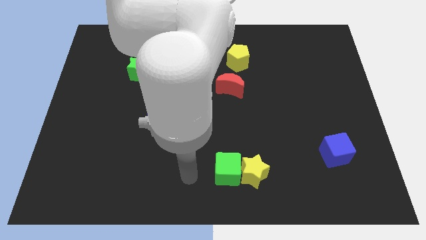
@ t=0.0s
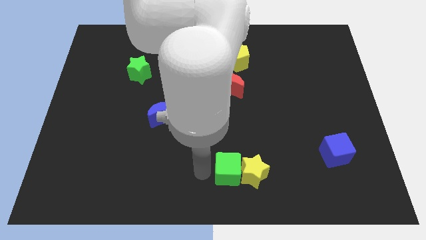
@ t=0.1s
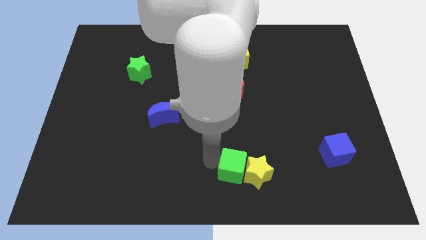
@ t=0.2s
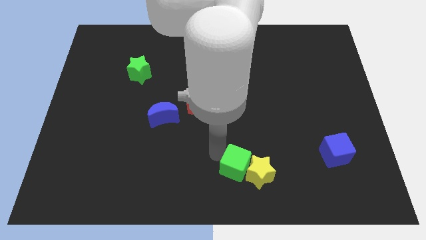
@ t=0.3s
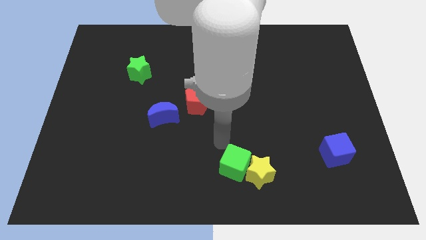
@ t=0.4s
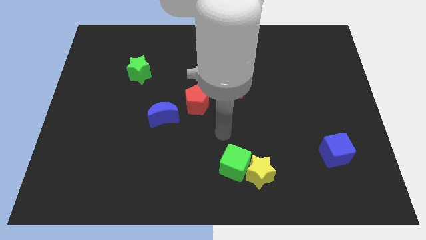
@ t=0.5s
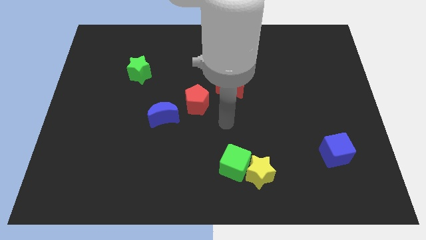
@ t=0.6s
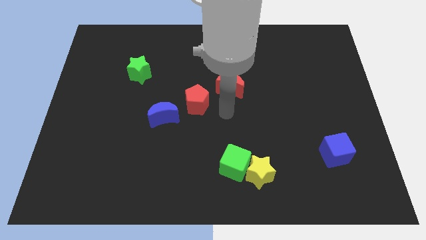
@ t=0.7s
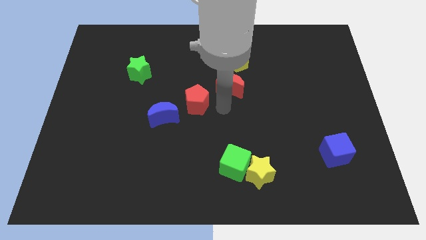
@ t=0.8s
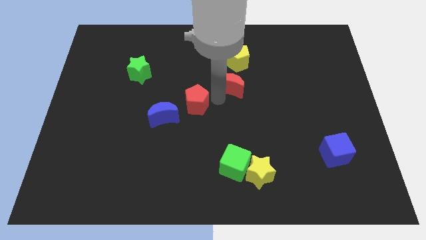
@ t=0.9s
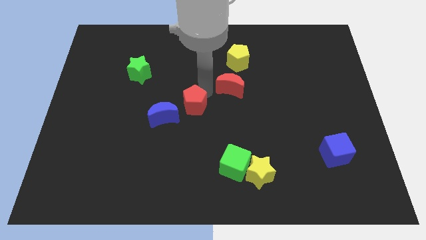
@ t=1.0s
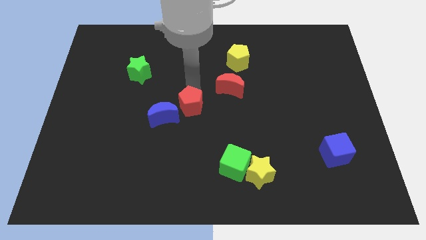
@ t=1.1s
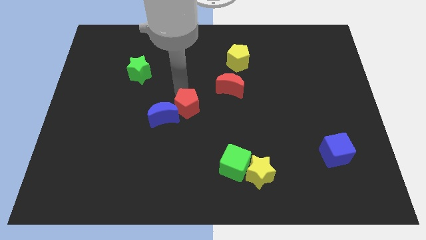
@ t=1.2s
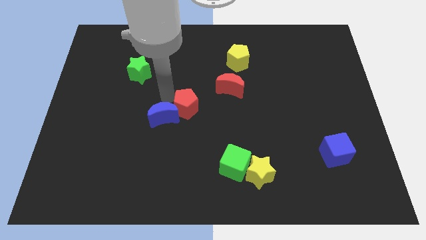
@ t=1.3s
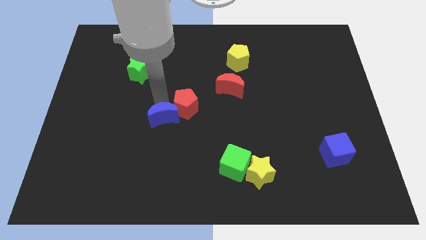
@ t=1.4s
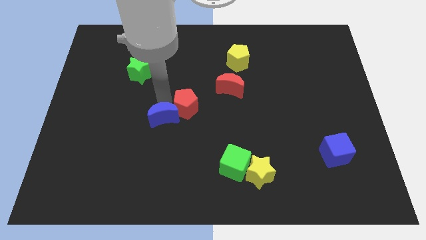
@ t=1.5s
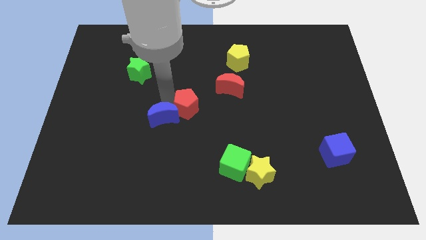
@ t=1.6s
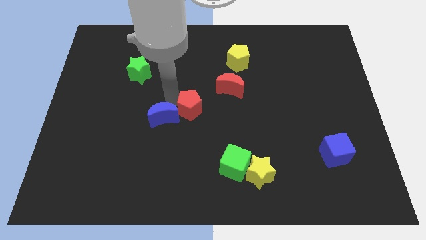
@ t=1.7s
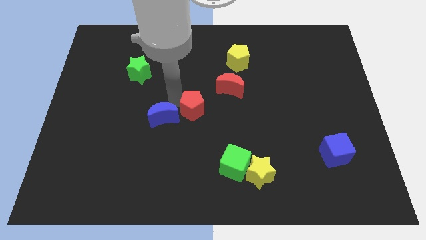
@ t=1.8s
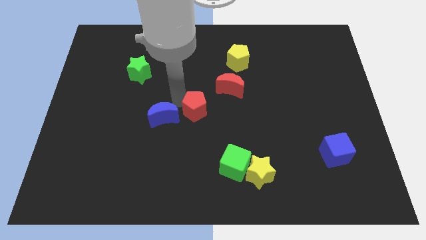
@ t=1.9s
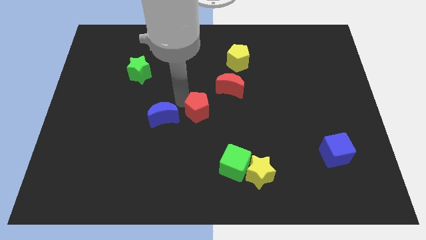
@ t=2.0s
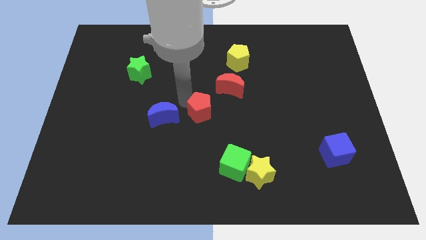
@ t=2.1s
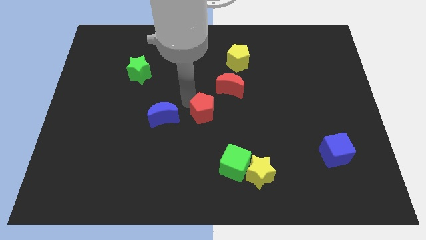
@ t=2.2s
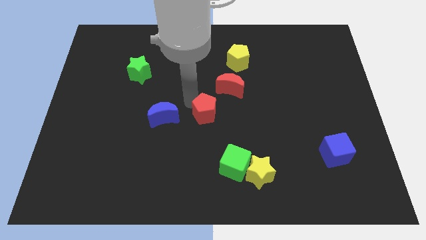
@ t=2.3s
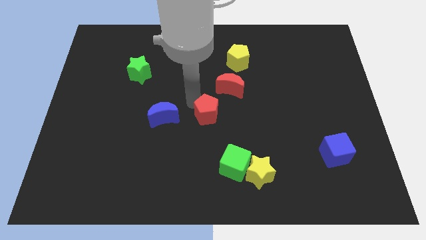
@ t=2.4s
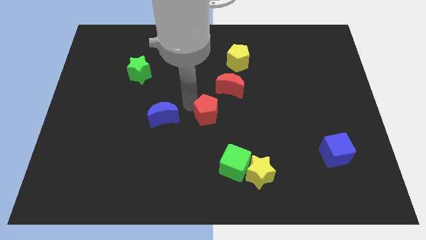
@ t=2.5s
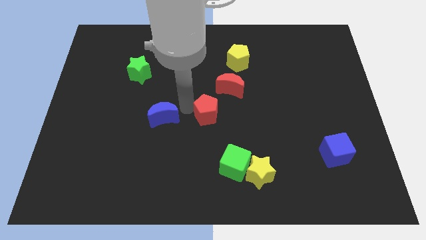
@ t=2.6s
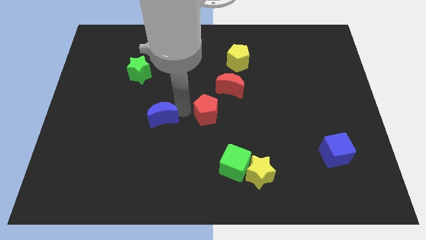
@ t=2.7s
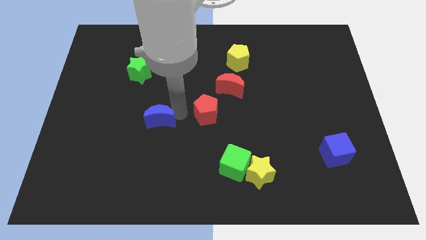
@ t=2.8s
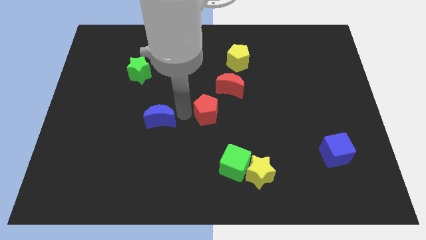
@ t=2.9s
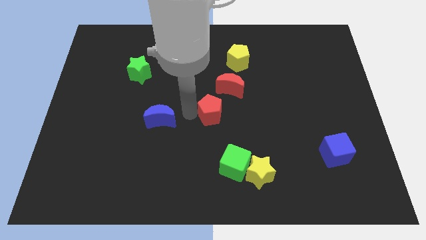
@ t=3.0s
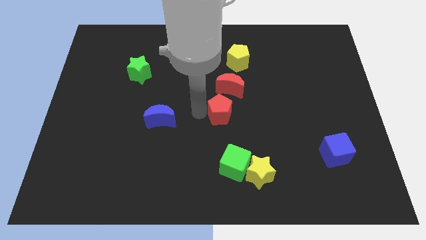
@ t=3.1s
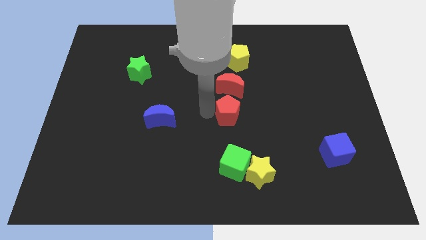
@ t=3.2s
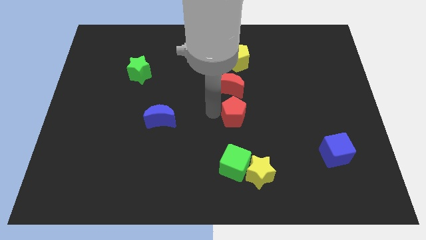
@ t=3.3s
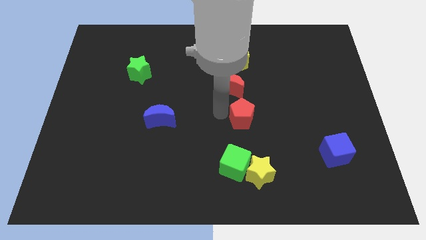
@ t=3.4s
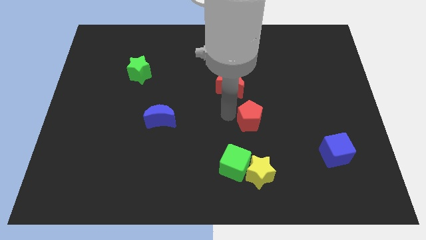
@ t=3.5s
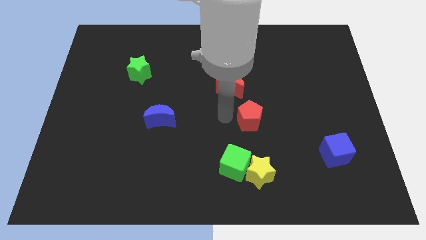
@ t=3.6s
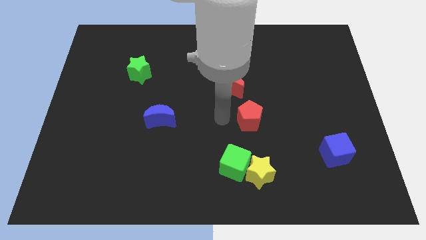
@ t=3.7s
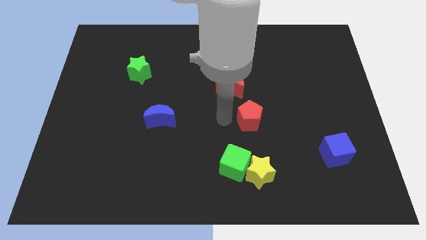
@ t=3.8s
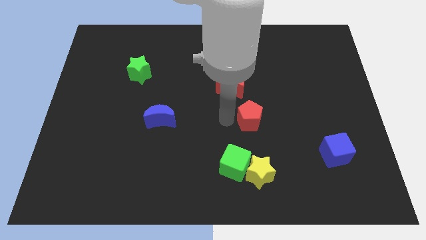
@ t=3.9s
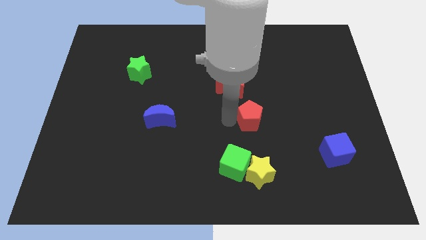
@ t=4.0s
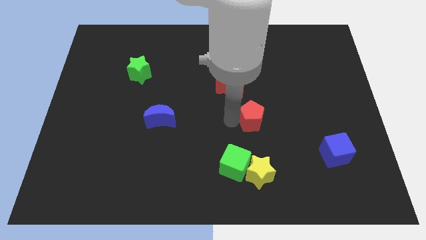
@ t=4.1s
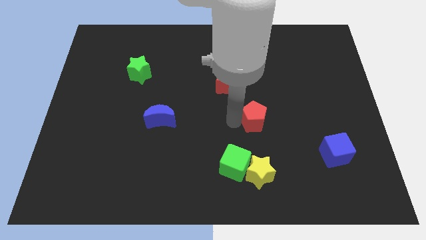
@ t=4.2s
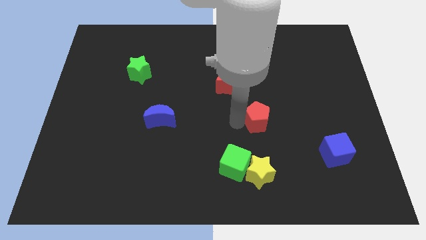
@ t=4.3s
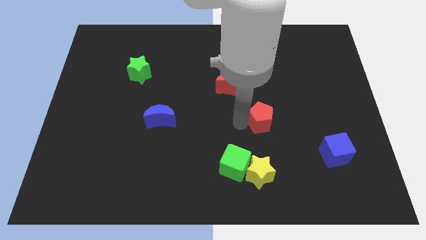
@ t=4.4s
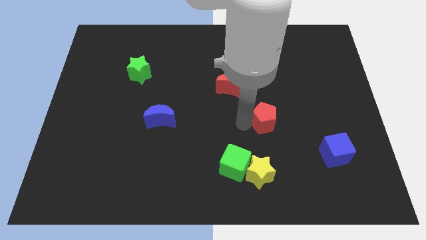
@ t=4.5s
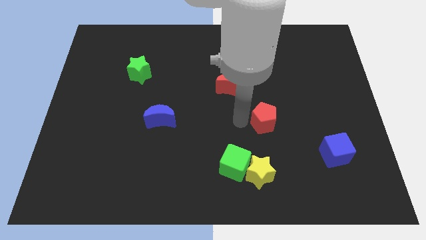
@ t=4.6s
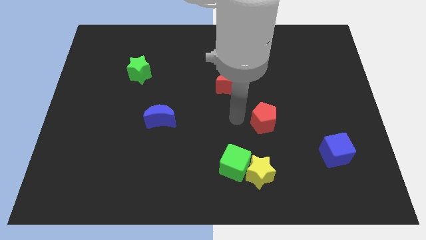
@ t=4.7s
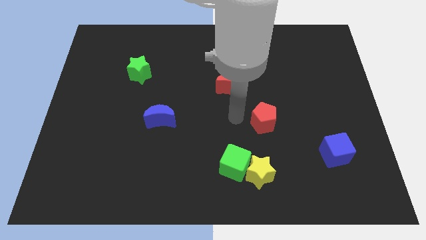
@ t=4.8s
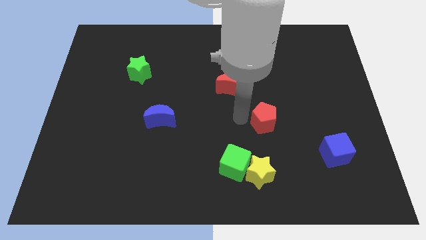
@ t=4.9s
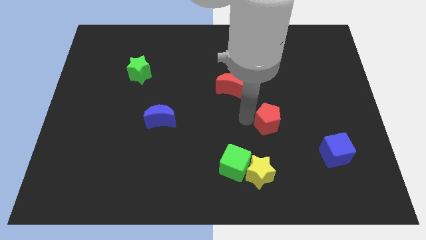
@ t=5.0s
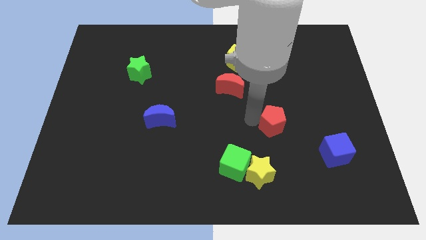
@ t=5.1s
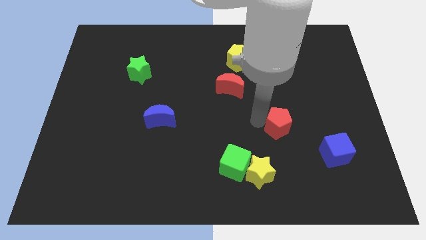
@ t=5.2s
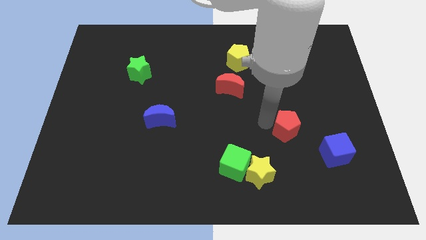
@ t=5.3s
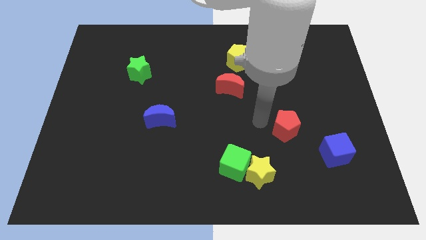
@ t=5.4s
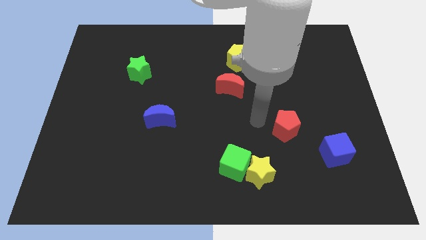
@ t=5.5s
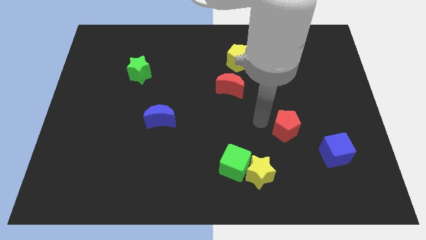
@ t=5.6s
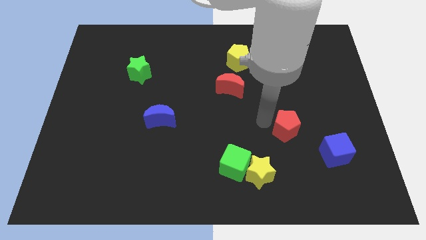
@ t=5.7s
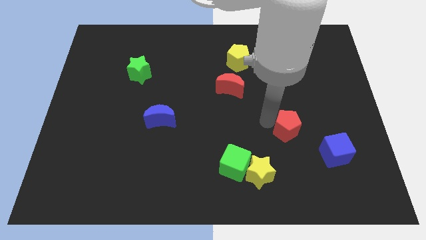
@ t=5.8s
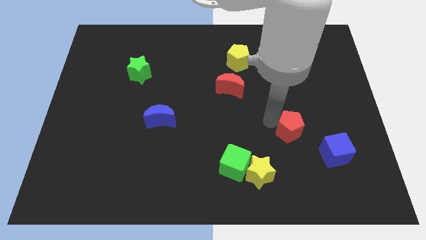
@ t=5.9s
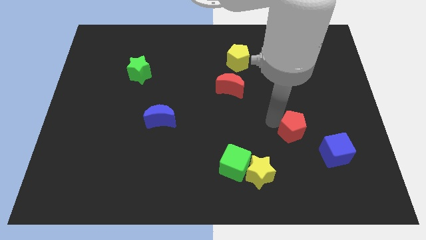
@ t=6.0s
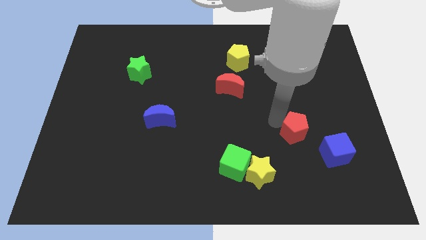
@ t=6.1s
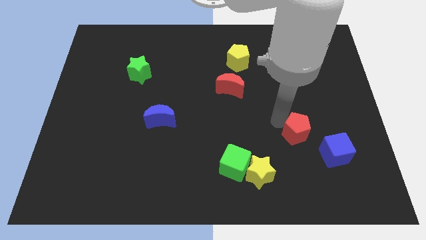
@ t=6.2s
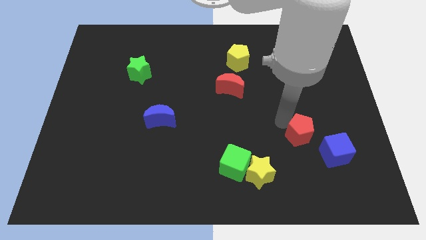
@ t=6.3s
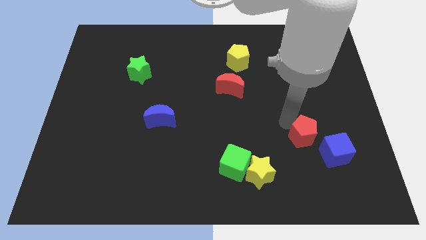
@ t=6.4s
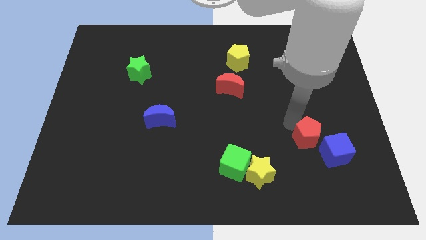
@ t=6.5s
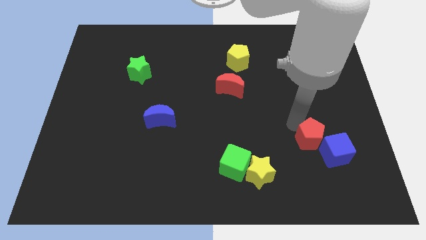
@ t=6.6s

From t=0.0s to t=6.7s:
push the red pentagon towards the blue cube
